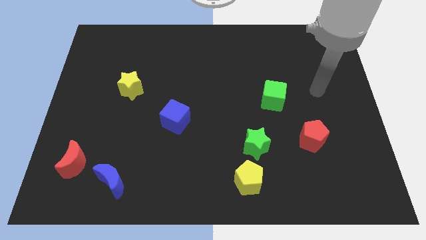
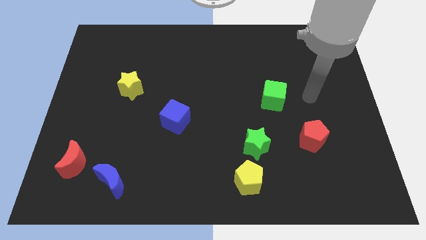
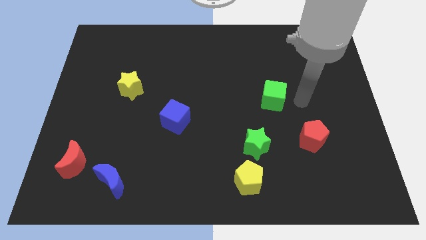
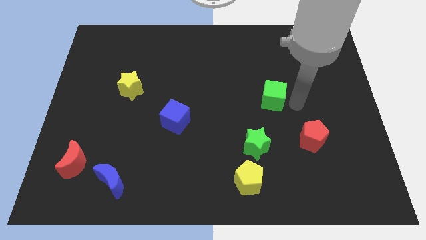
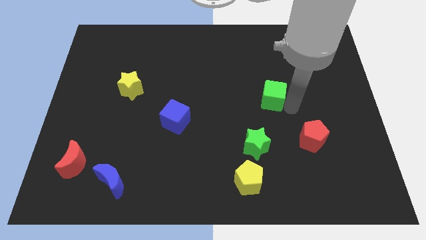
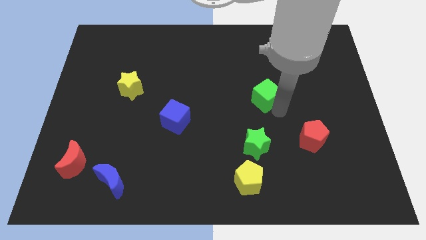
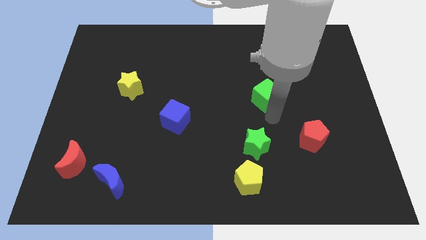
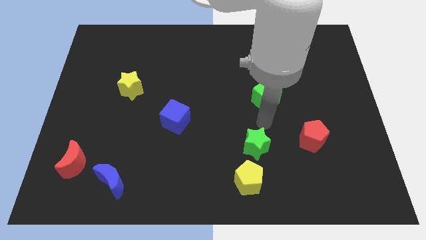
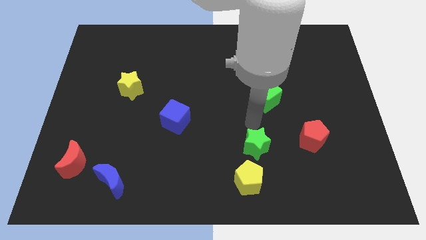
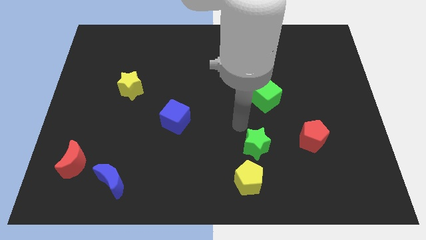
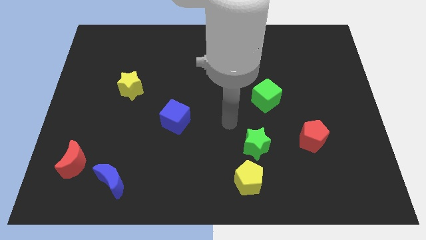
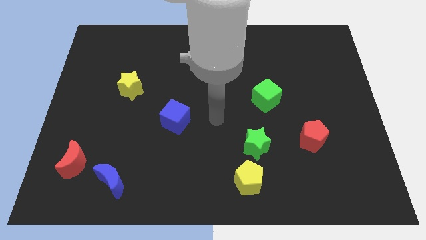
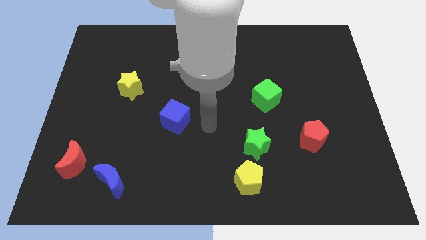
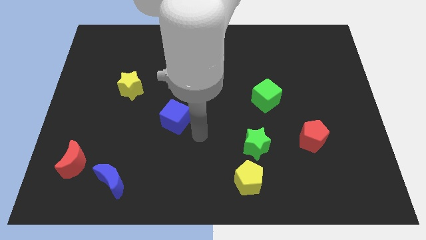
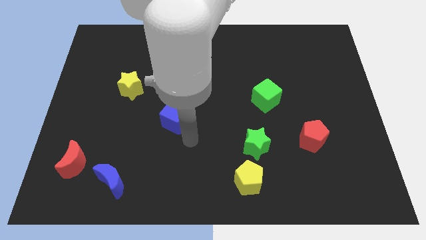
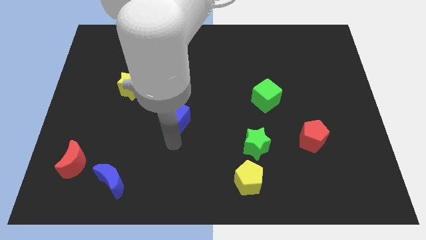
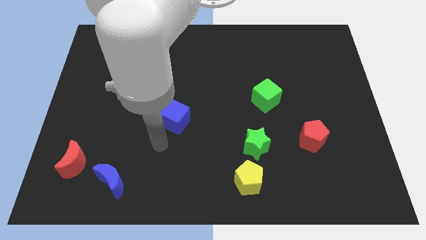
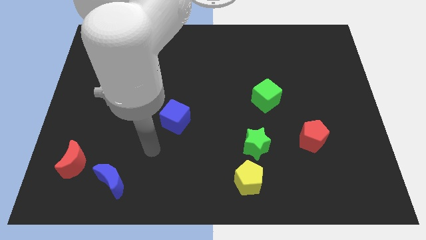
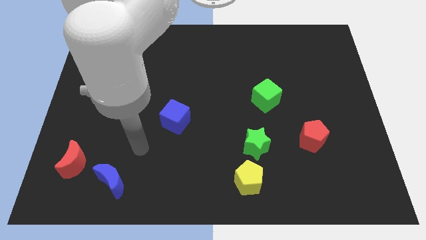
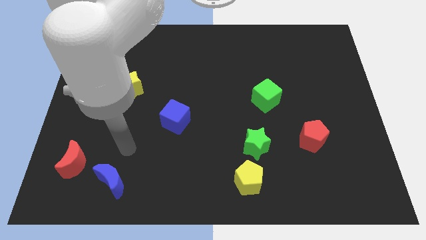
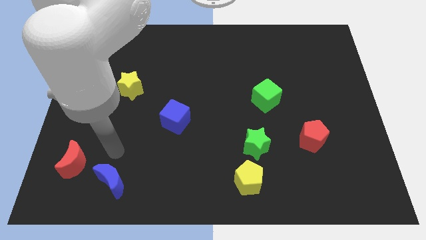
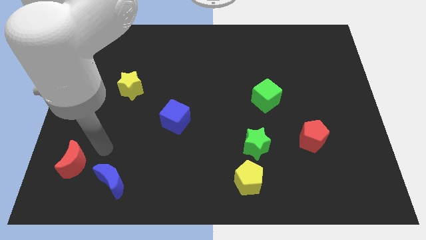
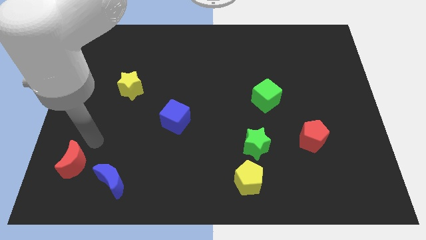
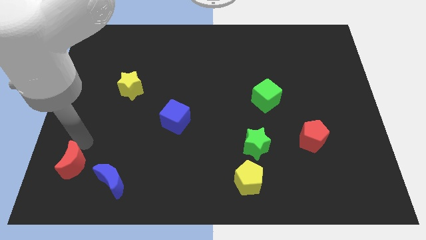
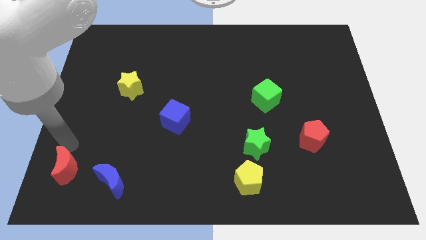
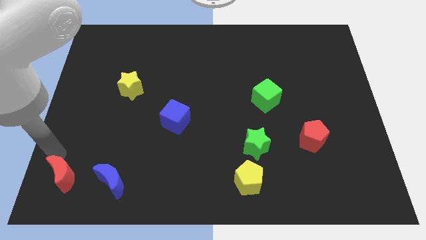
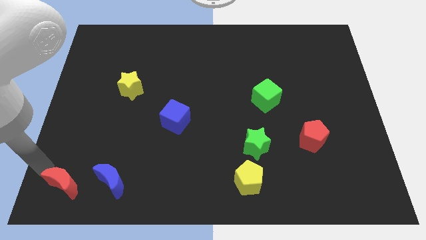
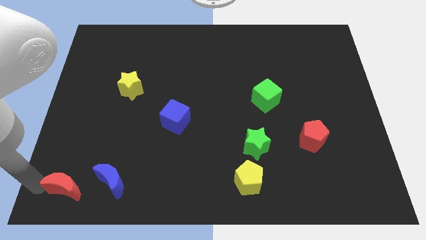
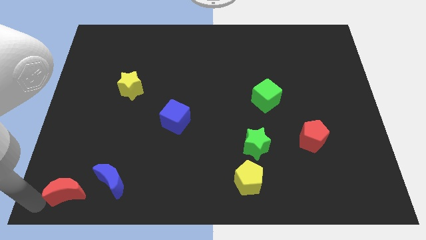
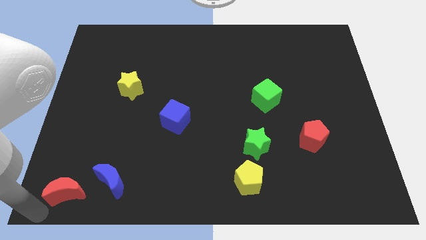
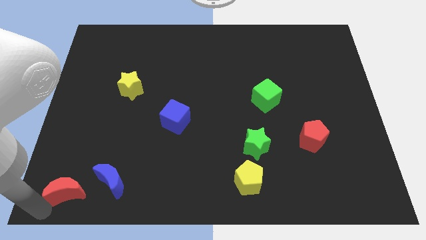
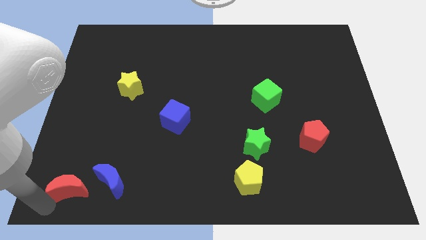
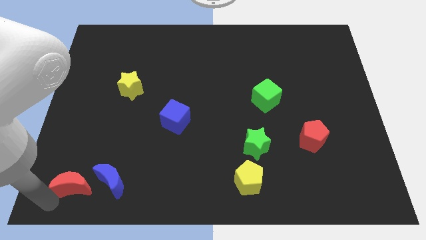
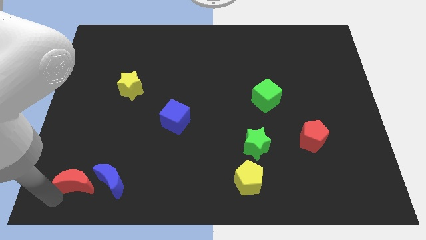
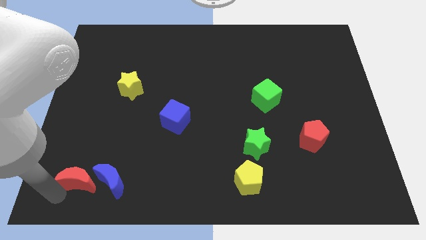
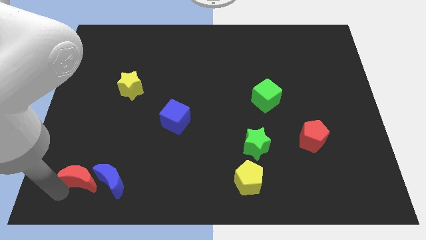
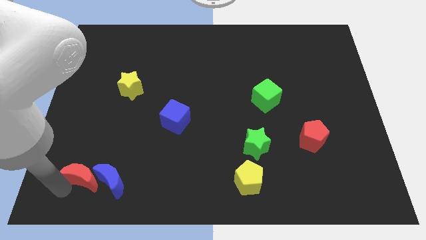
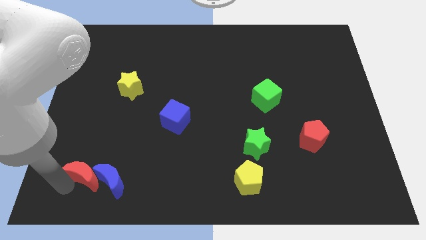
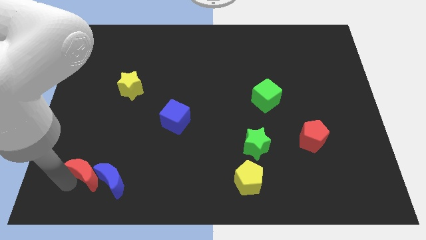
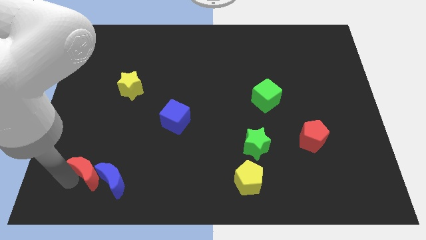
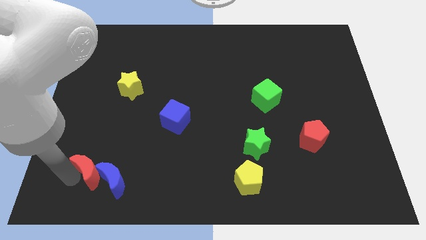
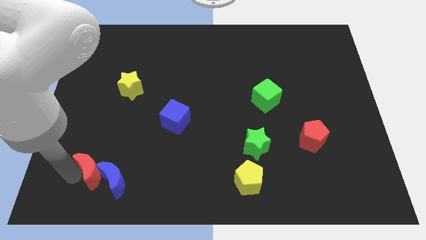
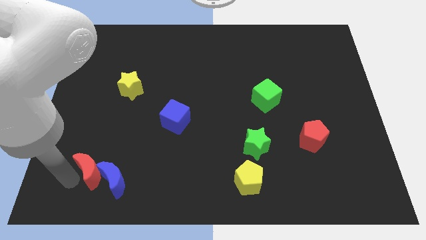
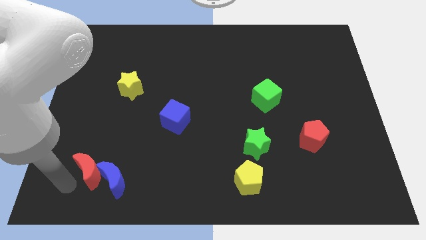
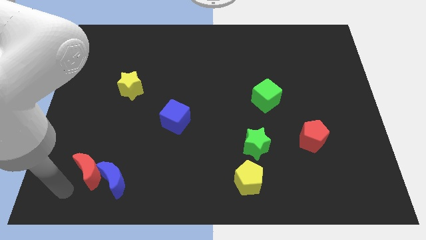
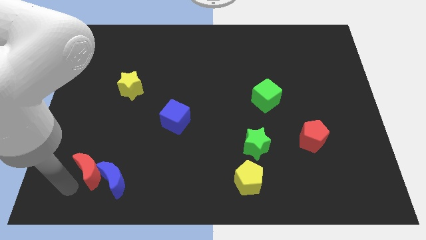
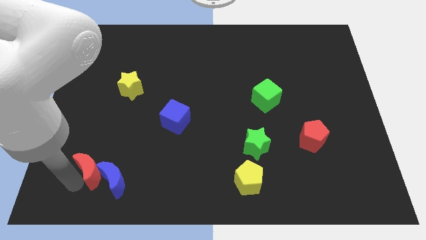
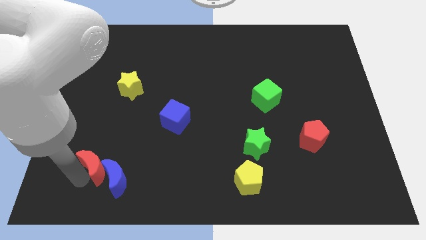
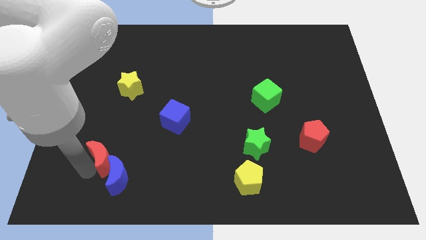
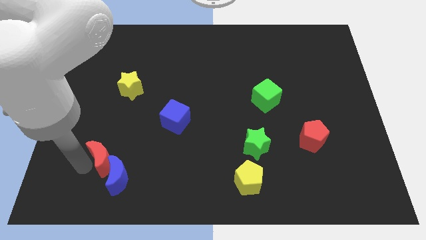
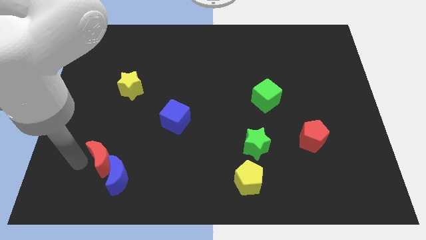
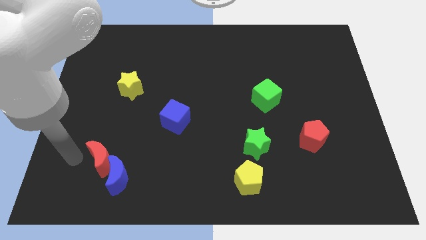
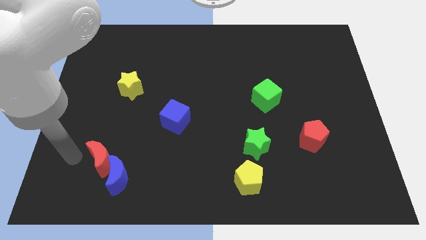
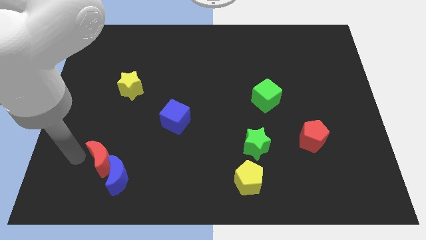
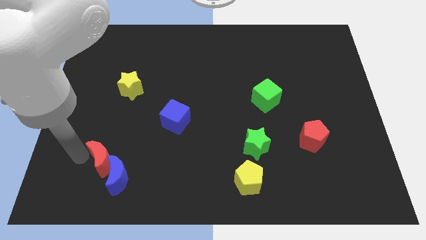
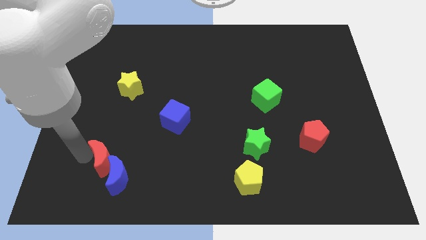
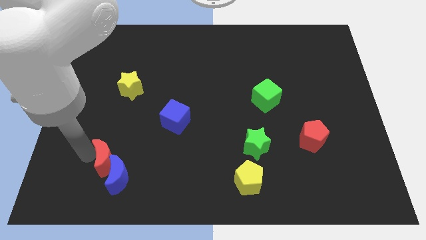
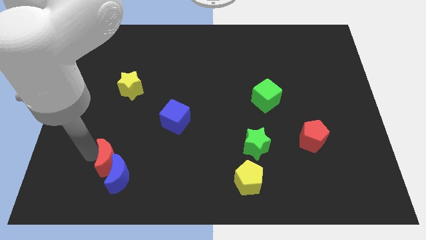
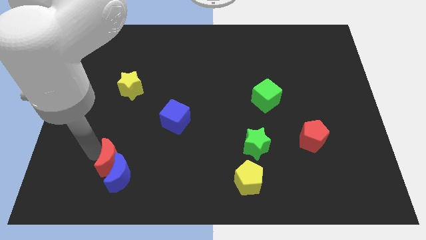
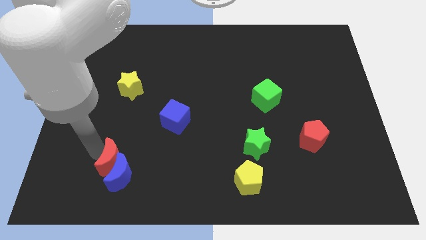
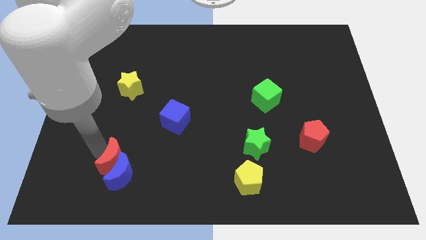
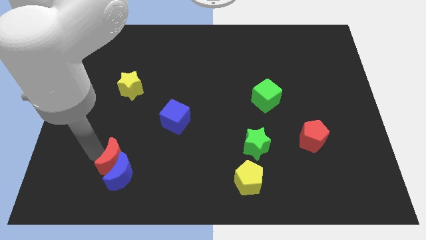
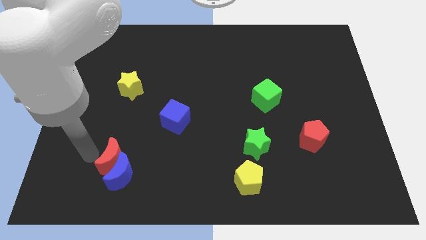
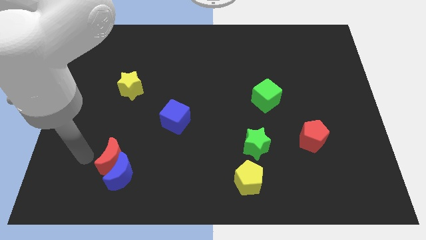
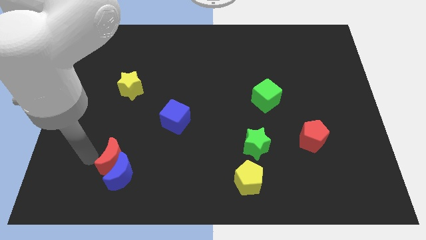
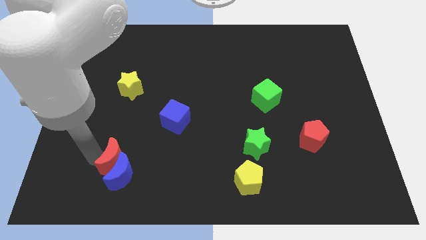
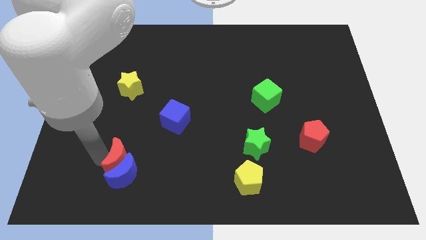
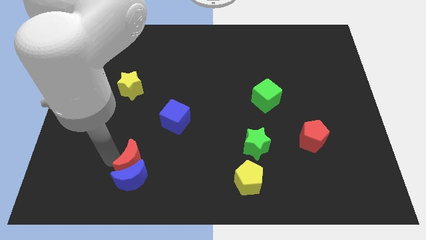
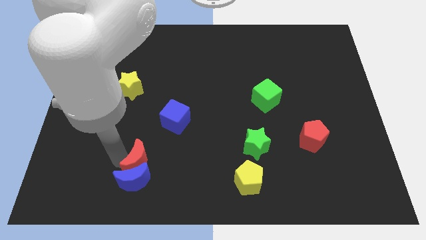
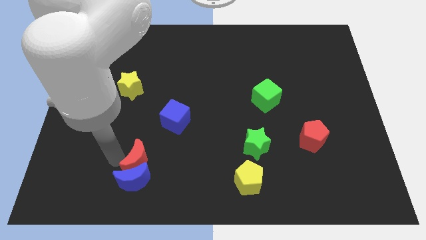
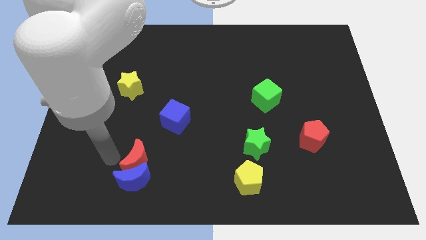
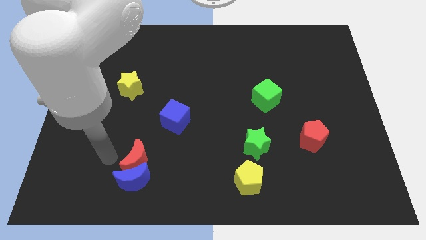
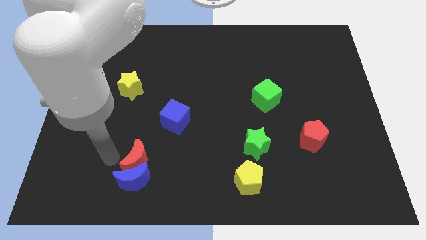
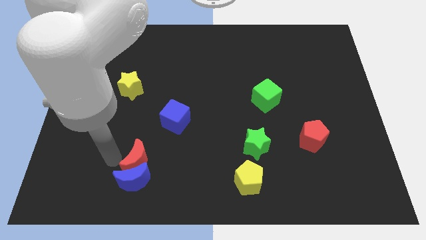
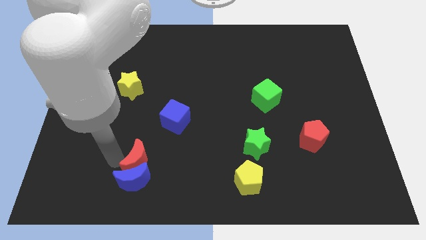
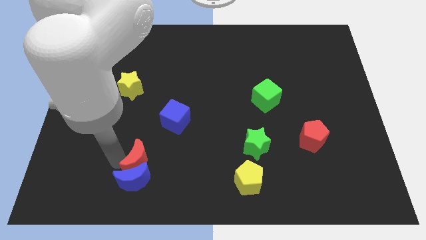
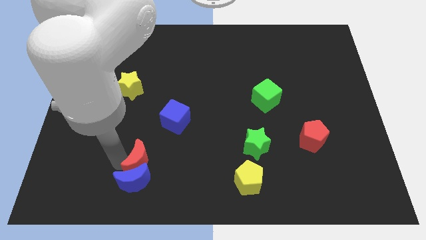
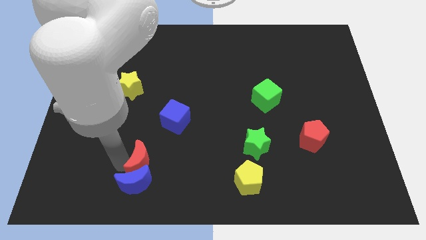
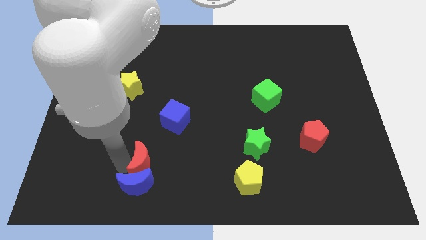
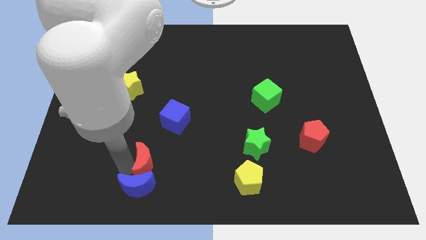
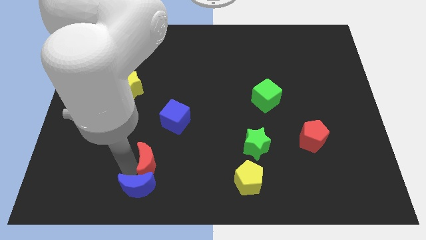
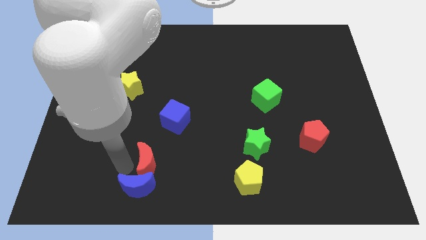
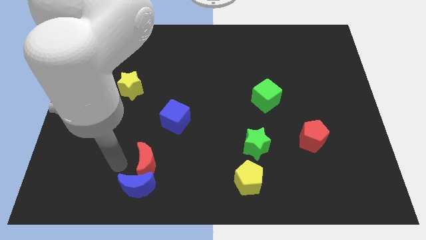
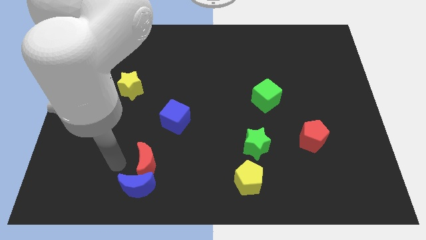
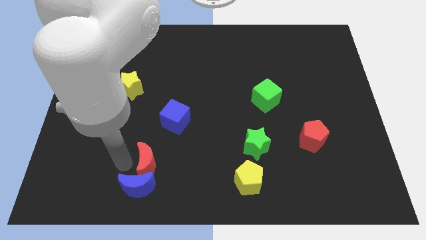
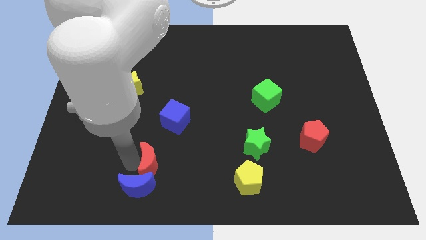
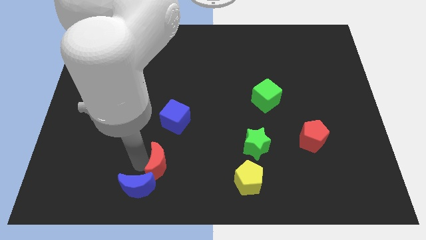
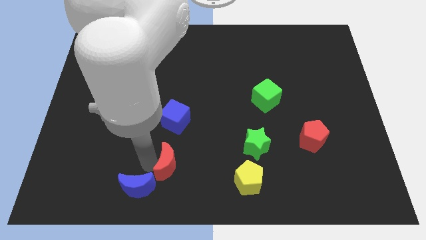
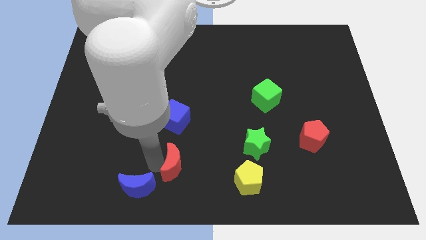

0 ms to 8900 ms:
move the red moon to the right
